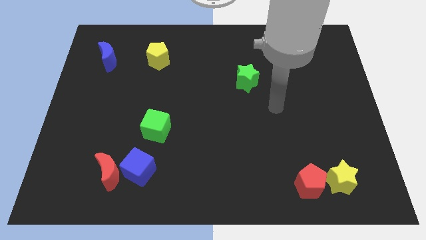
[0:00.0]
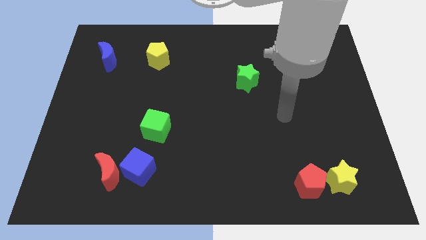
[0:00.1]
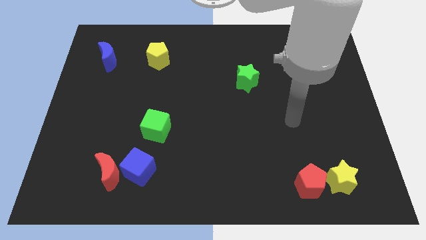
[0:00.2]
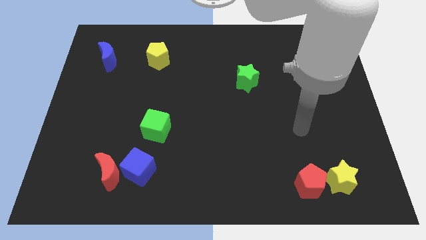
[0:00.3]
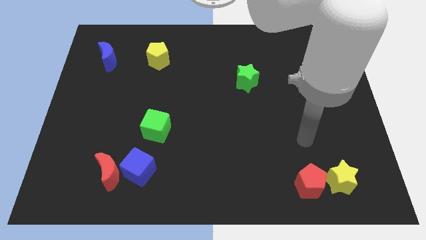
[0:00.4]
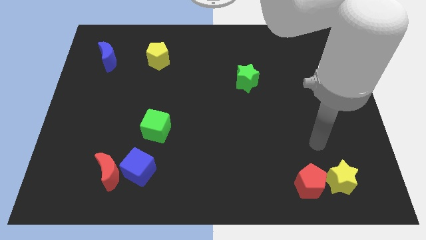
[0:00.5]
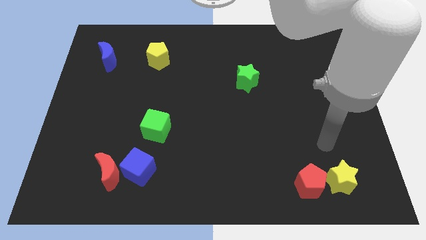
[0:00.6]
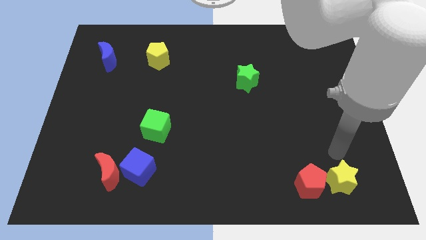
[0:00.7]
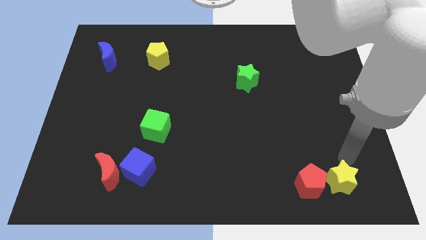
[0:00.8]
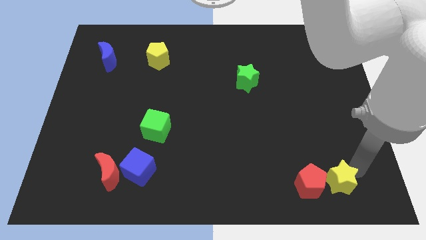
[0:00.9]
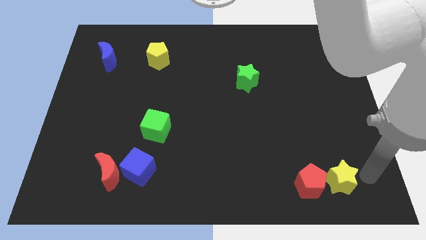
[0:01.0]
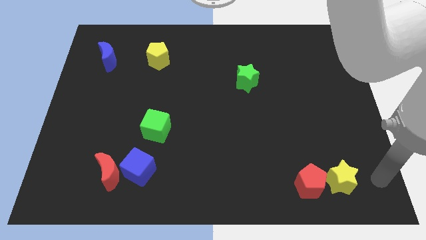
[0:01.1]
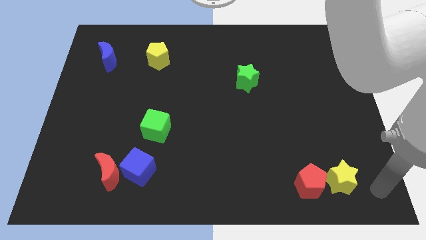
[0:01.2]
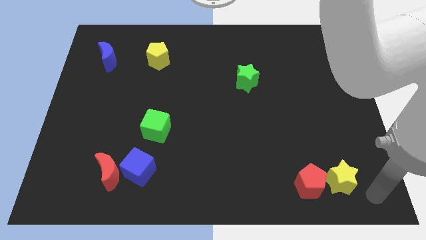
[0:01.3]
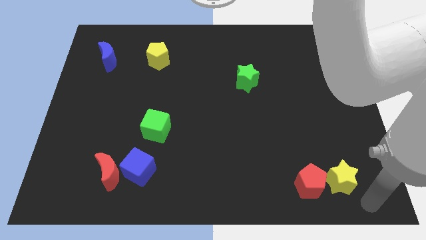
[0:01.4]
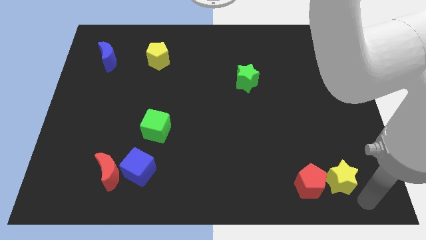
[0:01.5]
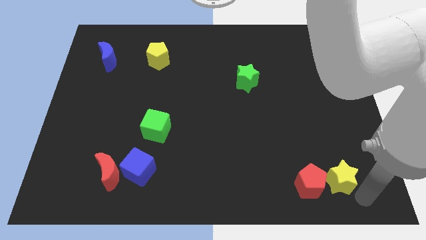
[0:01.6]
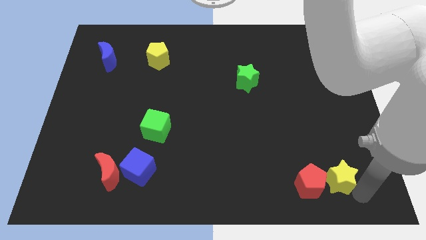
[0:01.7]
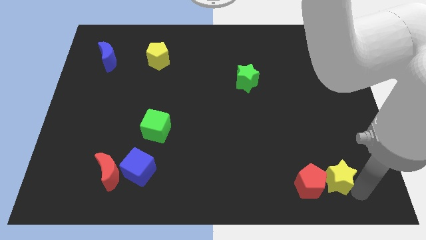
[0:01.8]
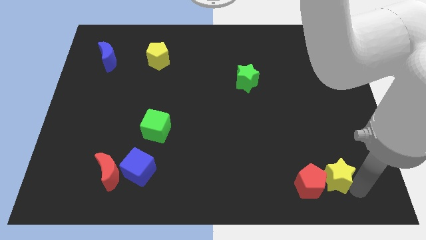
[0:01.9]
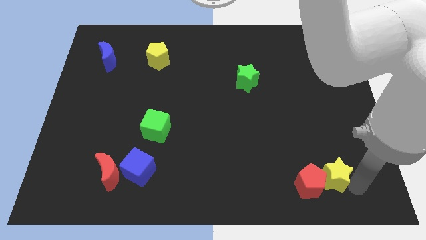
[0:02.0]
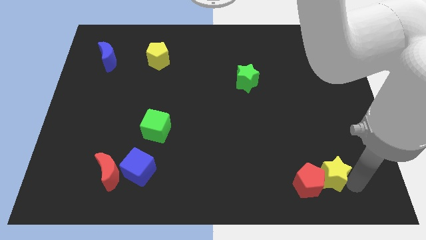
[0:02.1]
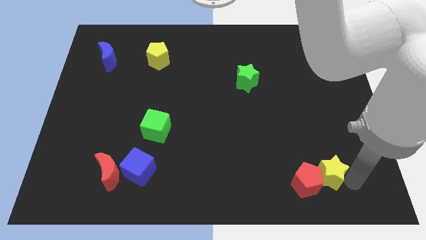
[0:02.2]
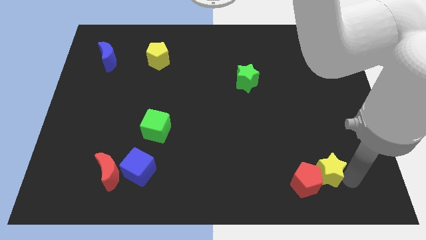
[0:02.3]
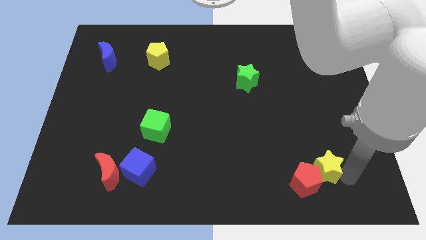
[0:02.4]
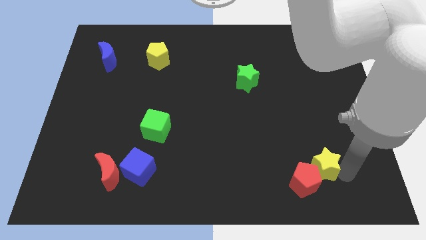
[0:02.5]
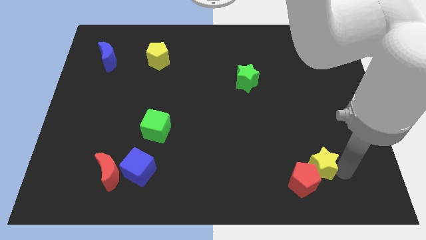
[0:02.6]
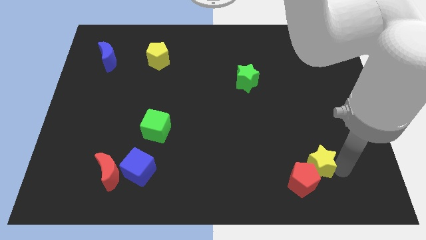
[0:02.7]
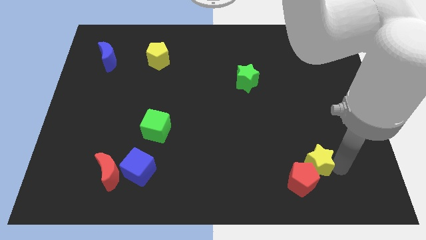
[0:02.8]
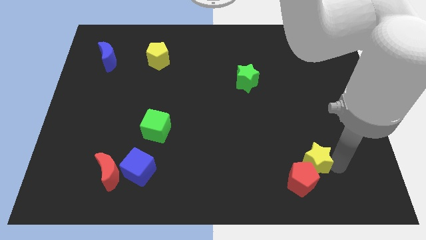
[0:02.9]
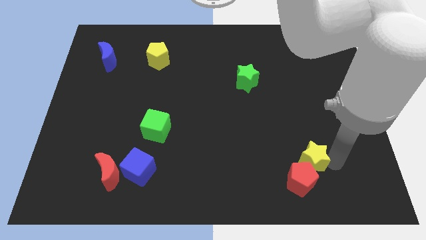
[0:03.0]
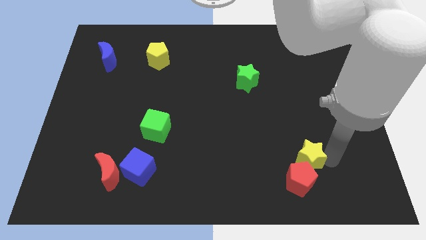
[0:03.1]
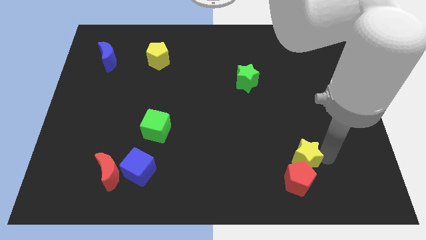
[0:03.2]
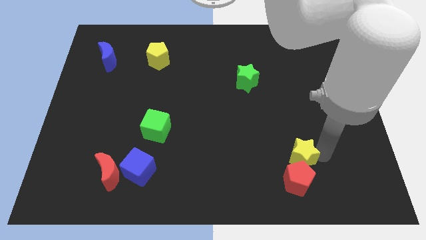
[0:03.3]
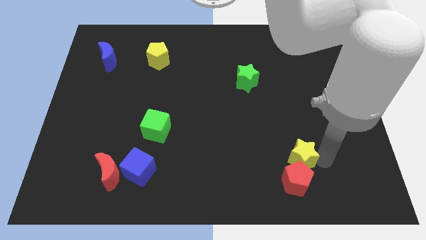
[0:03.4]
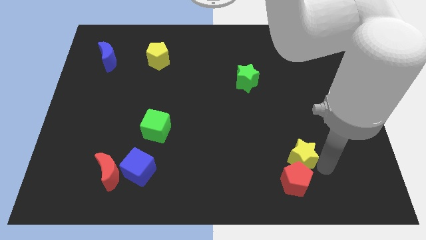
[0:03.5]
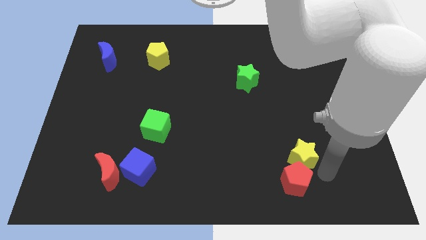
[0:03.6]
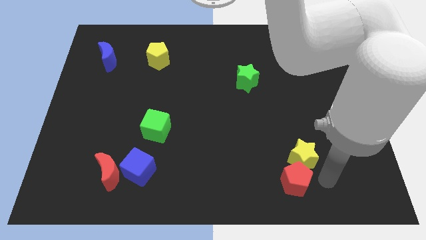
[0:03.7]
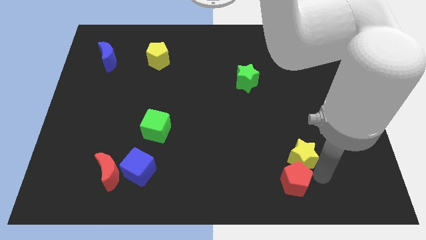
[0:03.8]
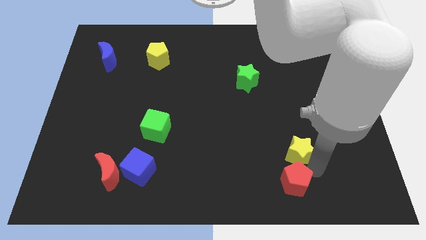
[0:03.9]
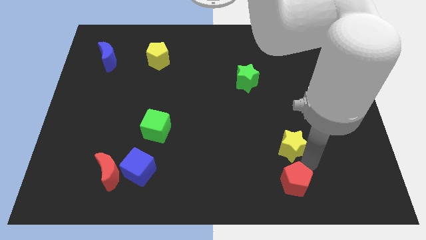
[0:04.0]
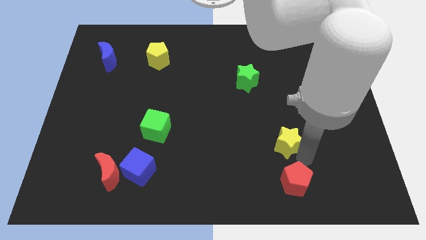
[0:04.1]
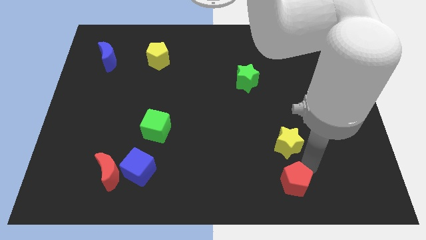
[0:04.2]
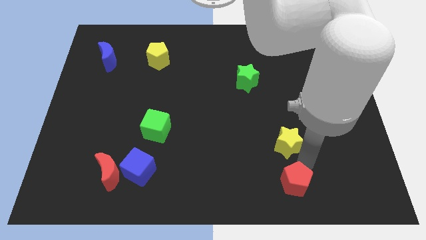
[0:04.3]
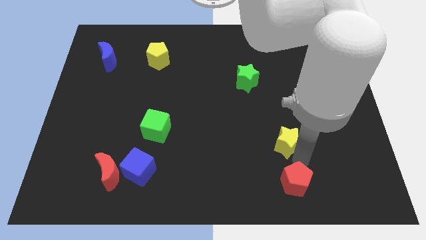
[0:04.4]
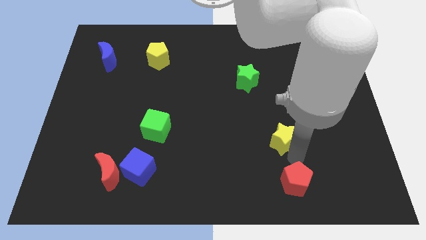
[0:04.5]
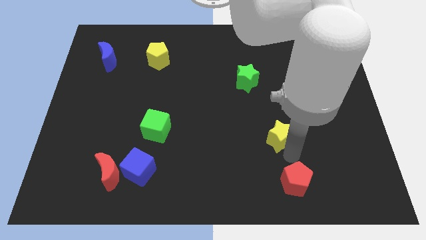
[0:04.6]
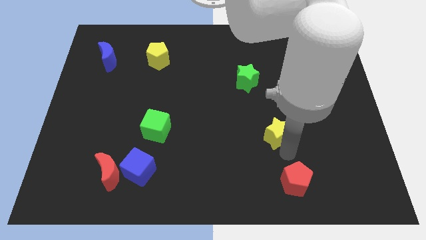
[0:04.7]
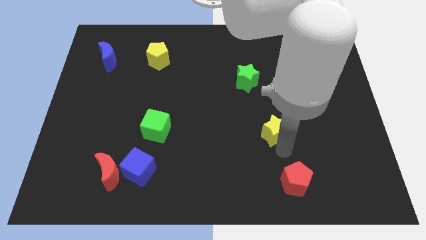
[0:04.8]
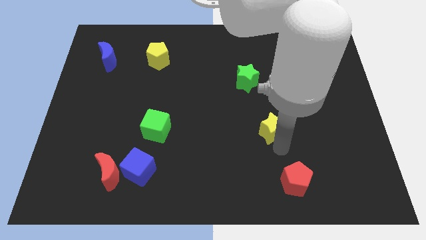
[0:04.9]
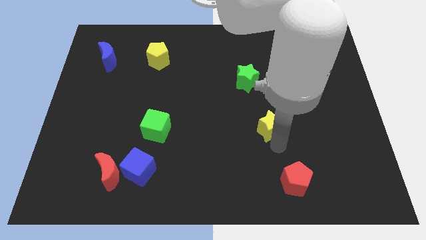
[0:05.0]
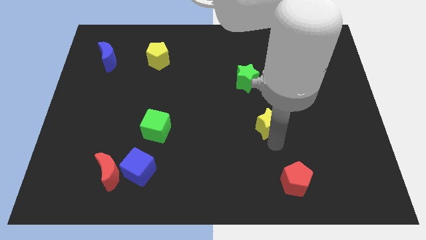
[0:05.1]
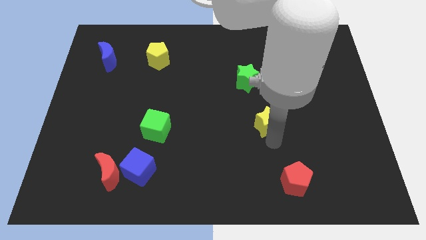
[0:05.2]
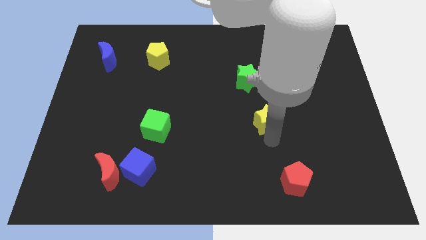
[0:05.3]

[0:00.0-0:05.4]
push the yellow star upwards and to the left

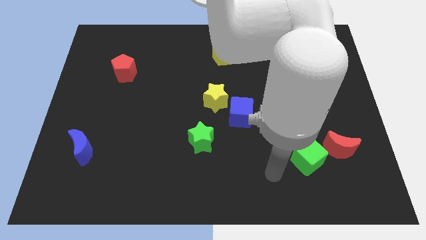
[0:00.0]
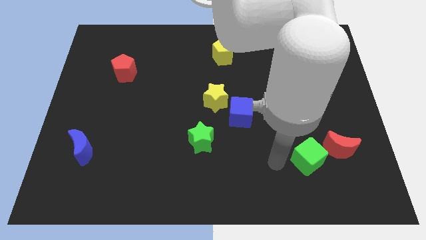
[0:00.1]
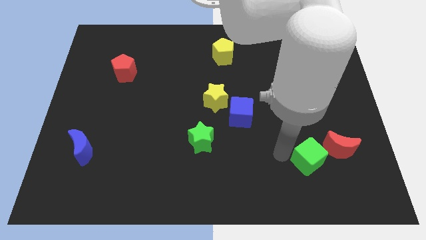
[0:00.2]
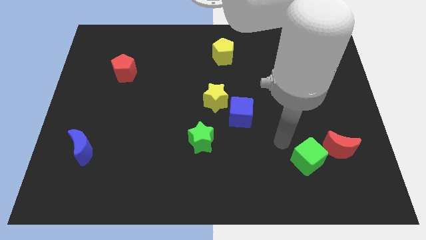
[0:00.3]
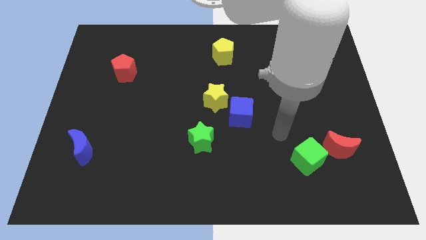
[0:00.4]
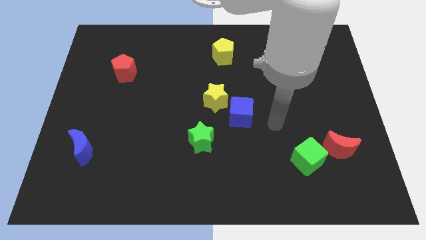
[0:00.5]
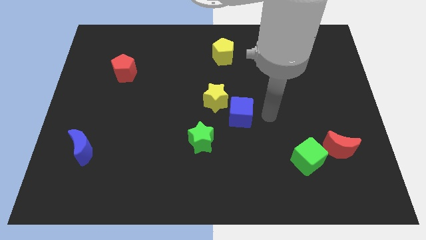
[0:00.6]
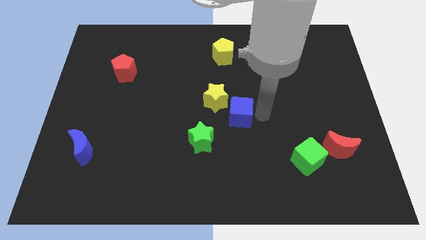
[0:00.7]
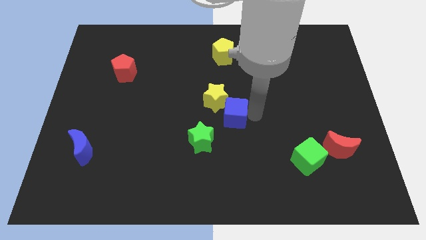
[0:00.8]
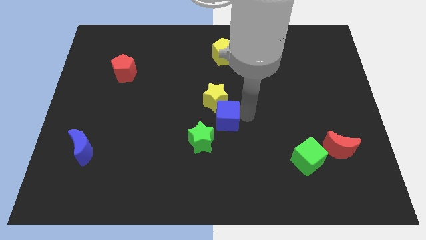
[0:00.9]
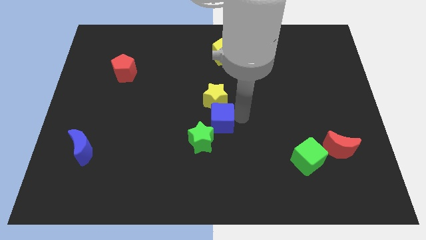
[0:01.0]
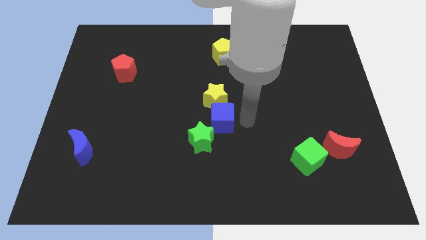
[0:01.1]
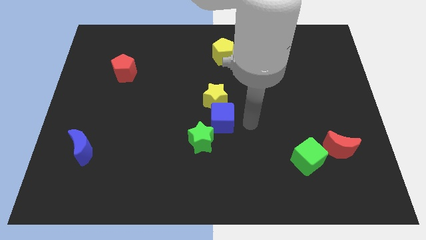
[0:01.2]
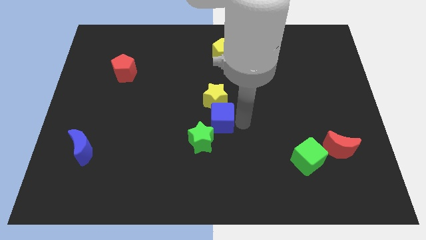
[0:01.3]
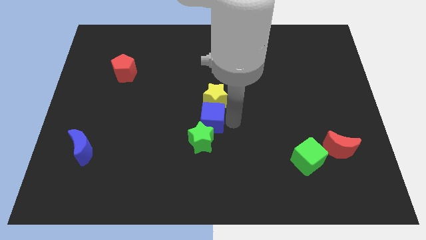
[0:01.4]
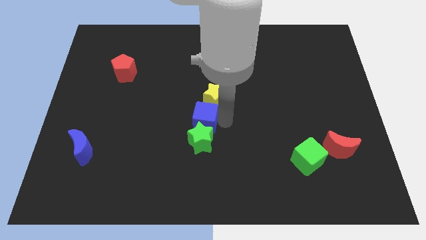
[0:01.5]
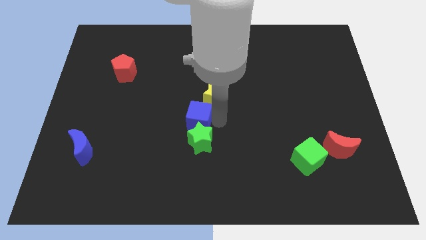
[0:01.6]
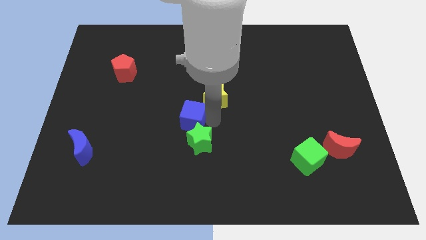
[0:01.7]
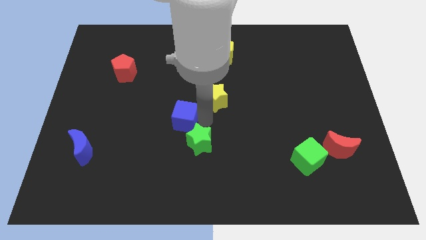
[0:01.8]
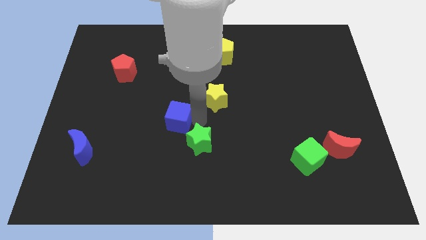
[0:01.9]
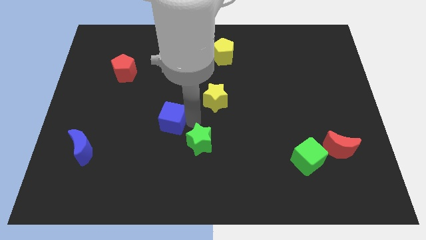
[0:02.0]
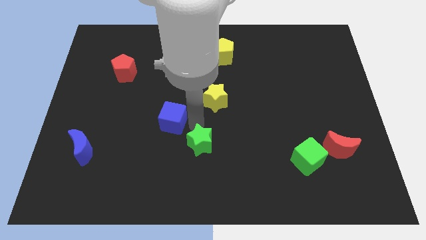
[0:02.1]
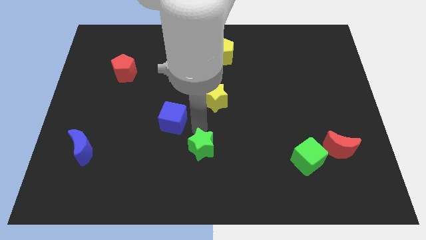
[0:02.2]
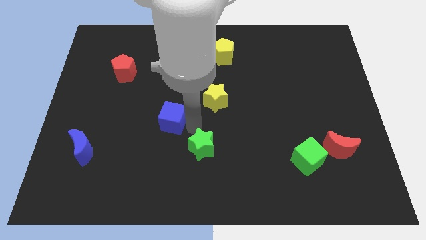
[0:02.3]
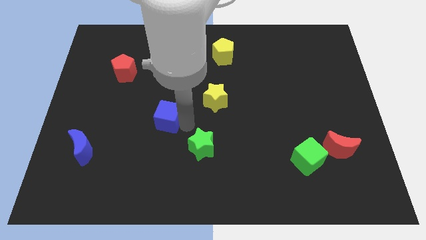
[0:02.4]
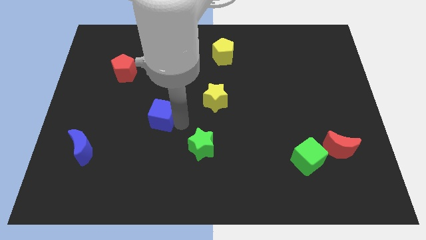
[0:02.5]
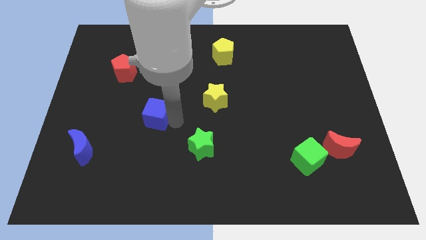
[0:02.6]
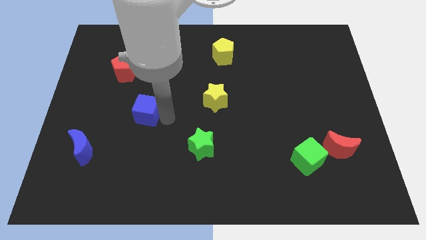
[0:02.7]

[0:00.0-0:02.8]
slide the blue cube left

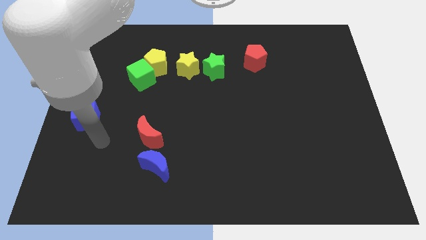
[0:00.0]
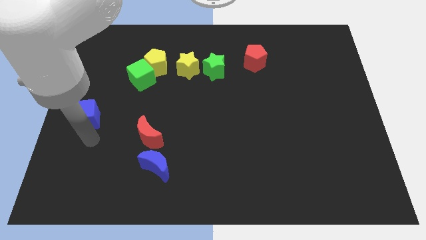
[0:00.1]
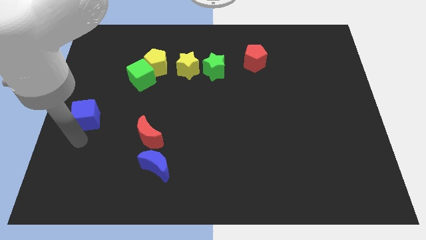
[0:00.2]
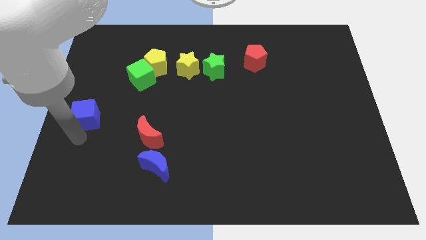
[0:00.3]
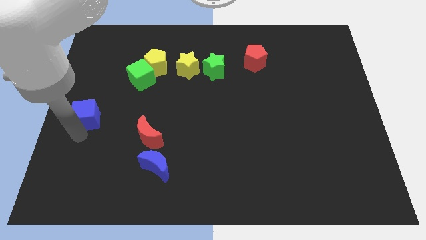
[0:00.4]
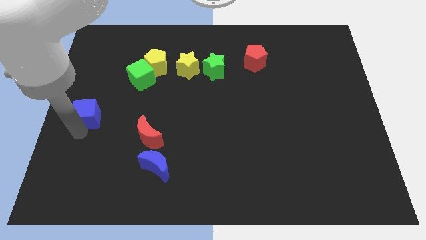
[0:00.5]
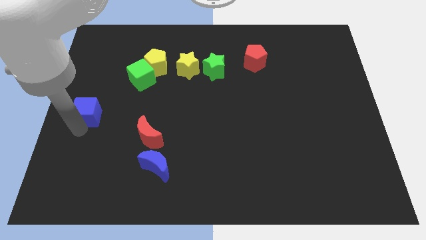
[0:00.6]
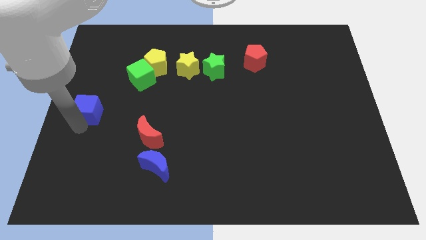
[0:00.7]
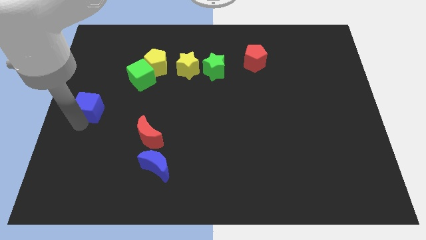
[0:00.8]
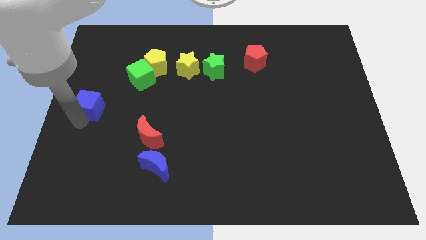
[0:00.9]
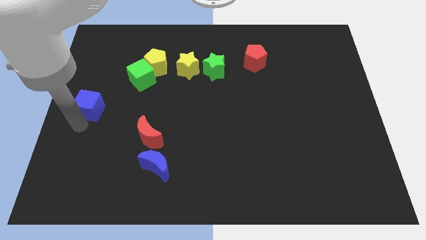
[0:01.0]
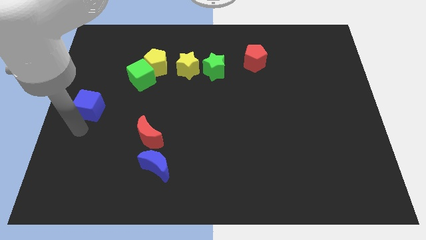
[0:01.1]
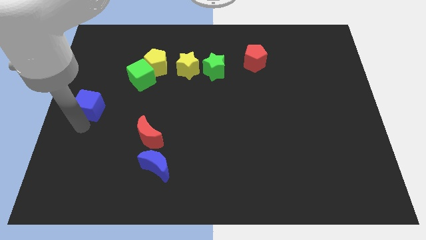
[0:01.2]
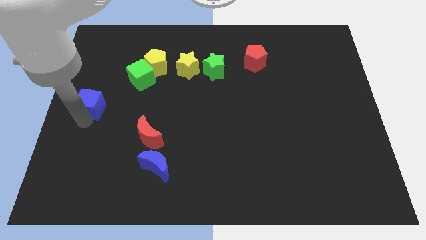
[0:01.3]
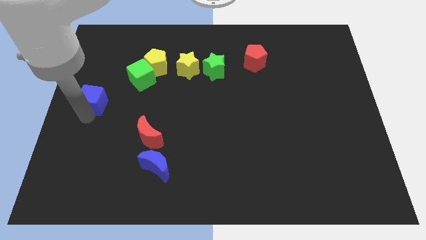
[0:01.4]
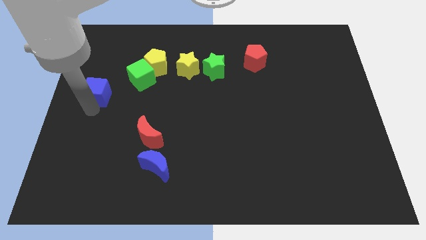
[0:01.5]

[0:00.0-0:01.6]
slide the blue cube upwards somewhat
